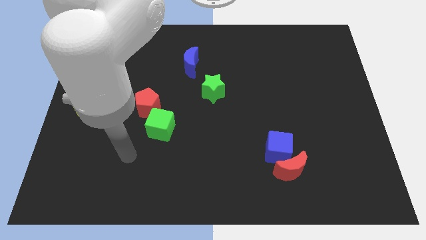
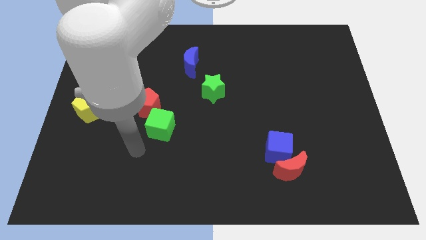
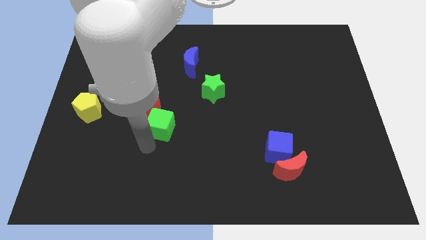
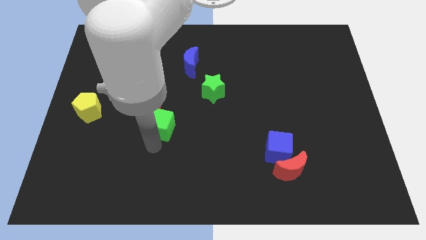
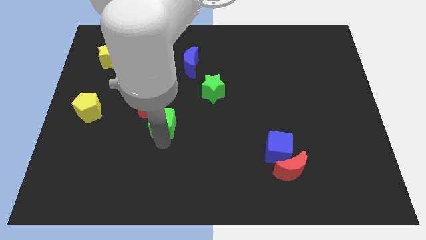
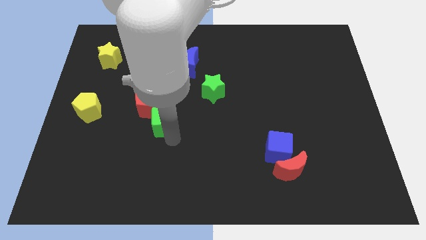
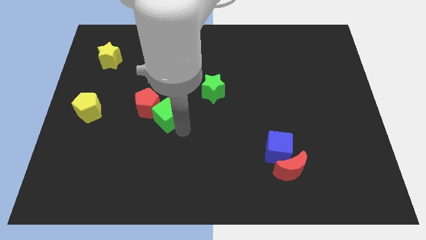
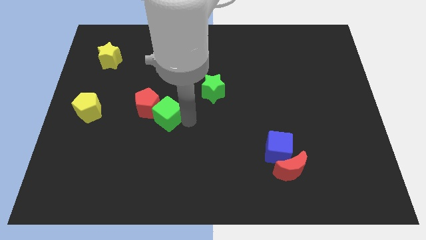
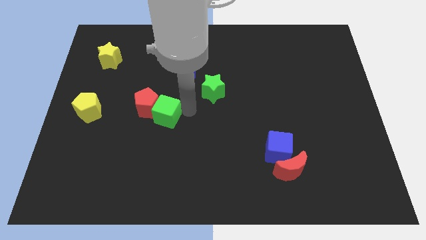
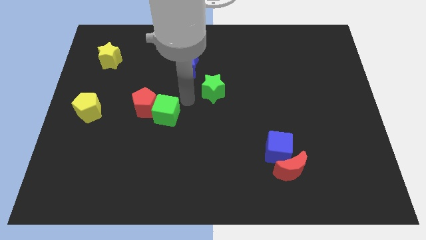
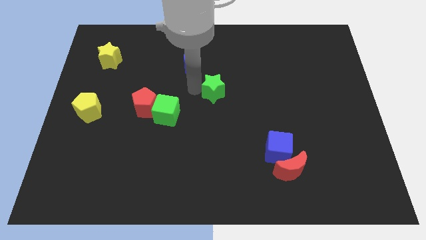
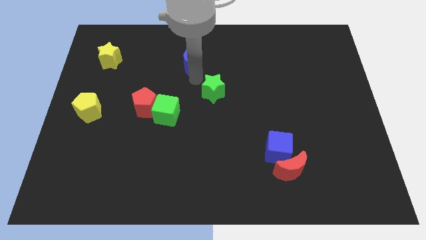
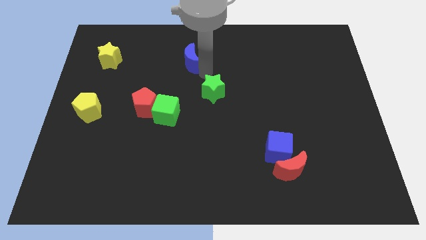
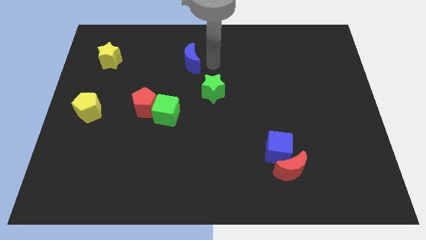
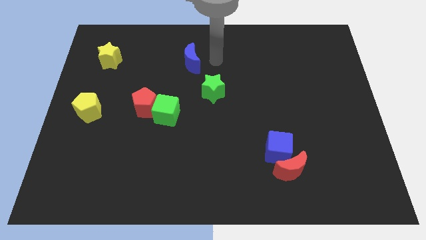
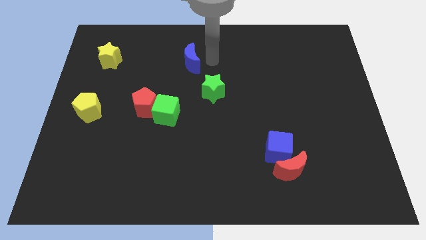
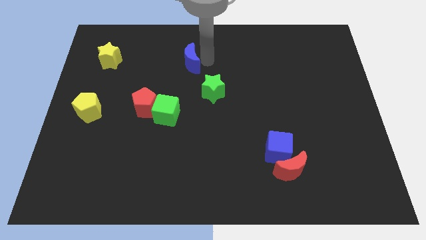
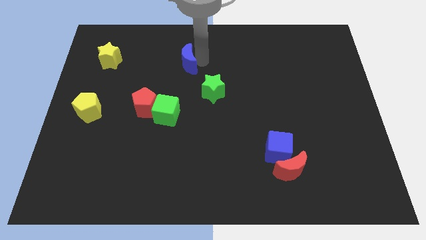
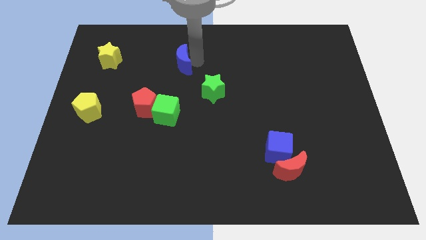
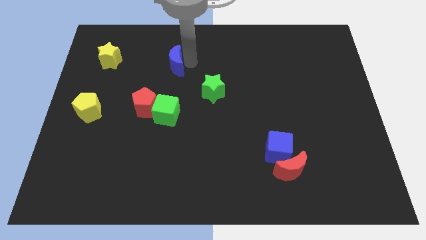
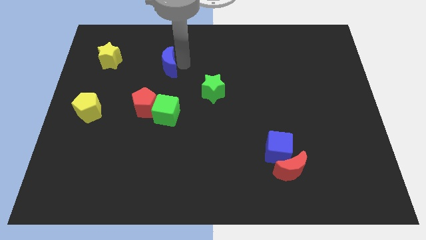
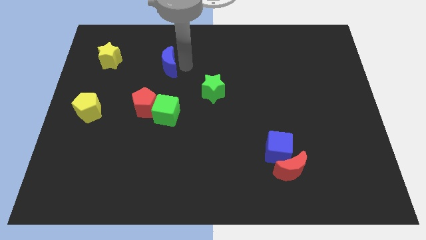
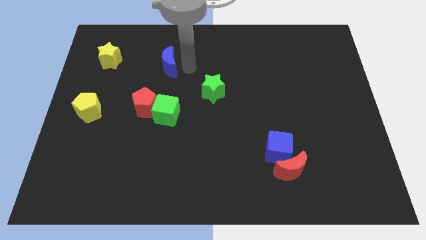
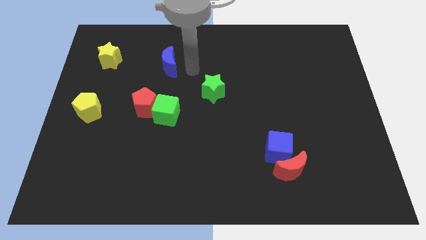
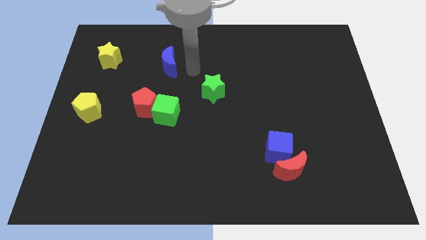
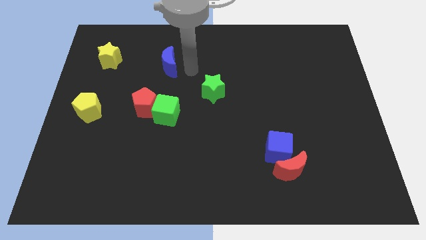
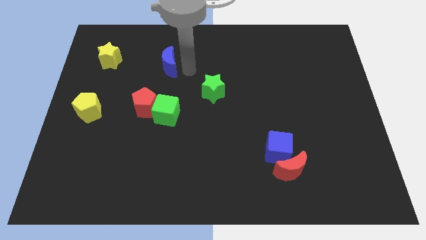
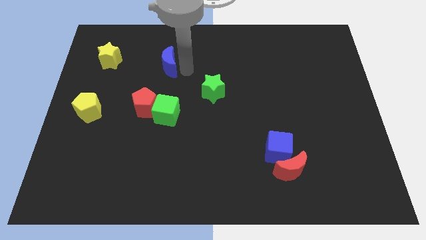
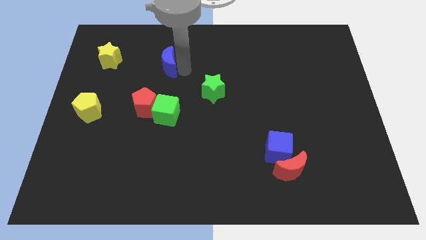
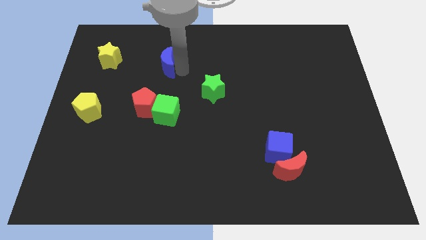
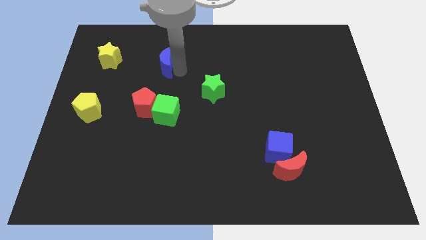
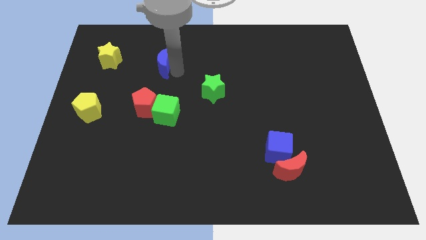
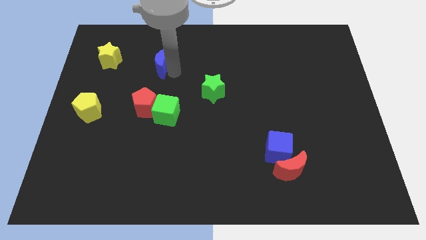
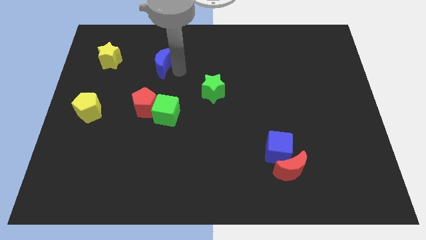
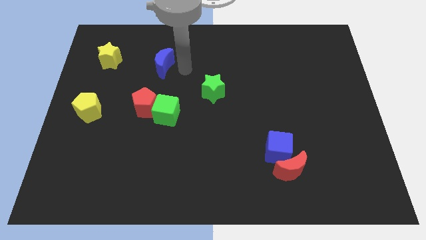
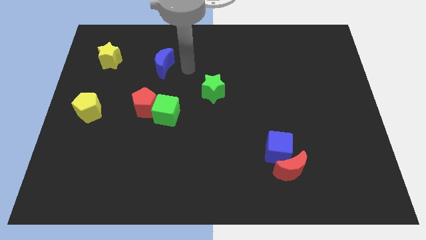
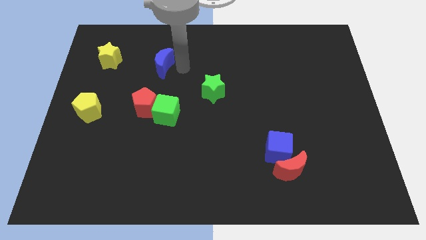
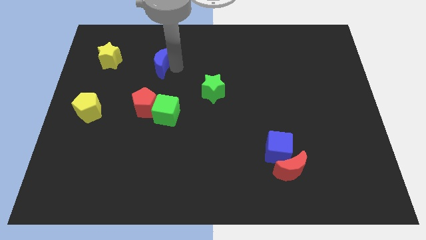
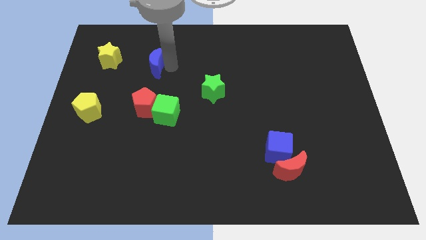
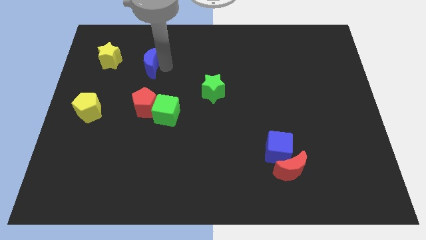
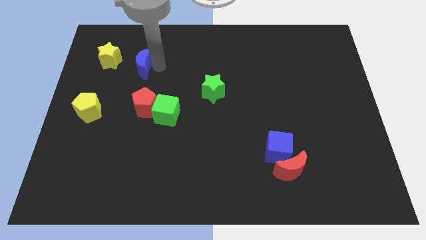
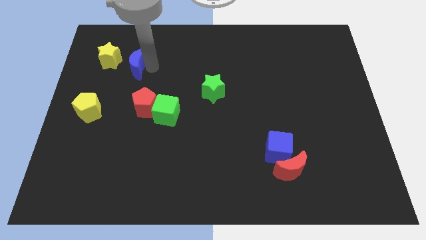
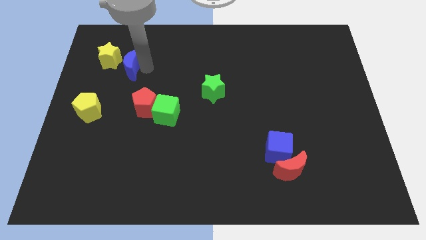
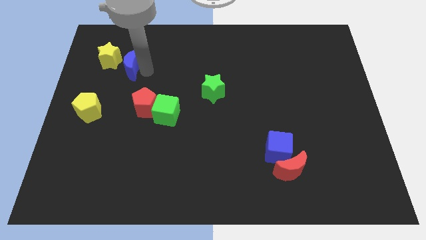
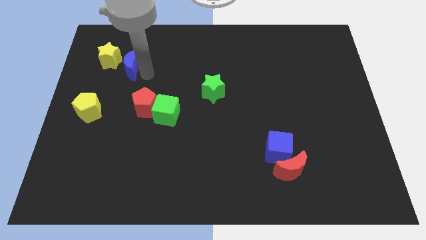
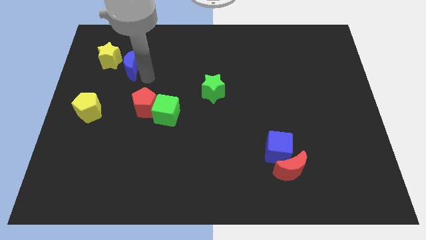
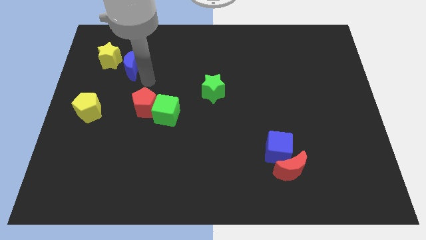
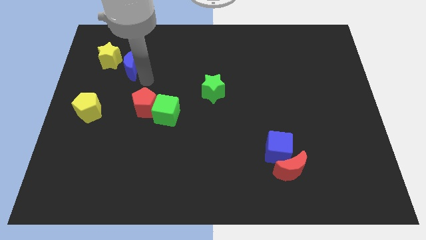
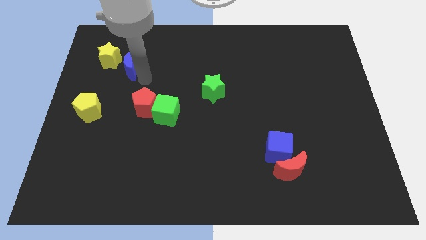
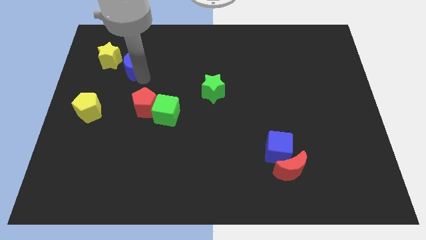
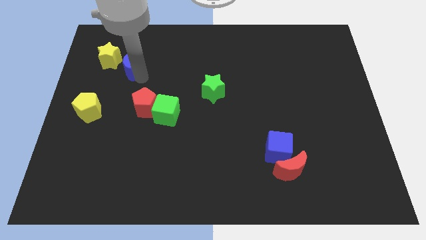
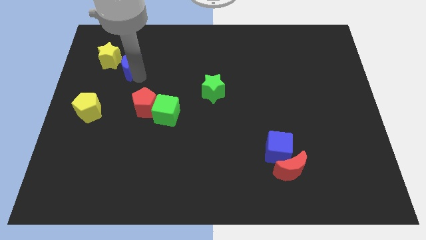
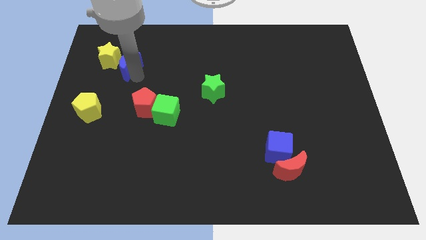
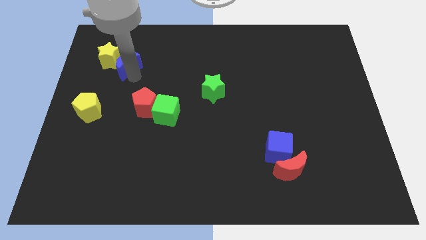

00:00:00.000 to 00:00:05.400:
put the blue moon close to the yellow star

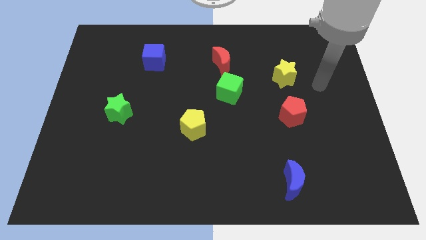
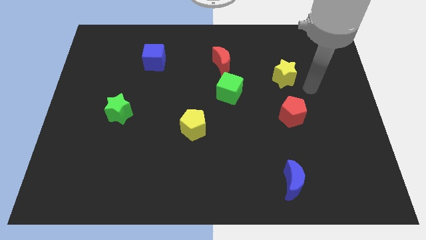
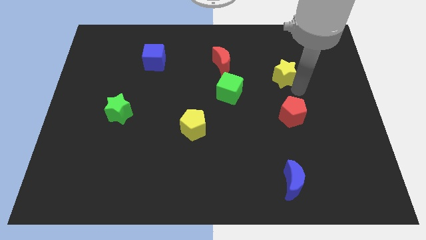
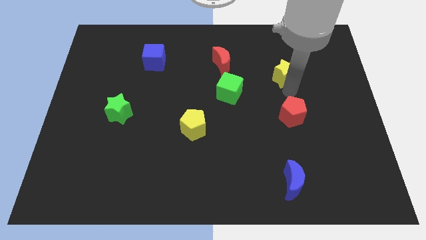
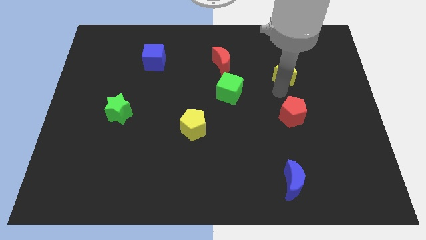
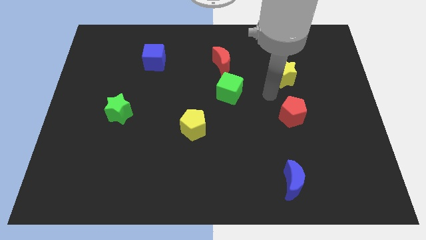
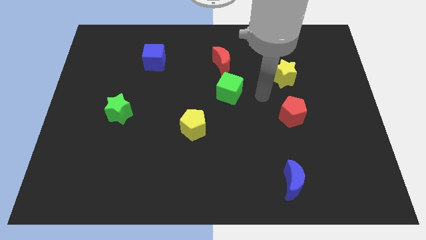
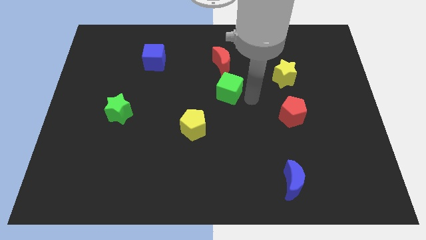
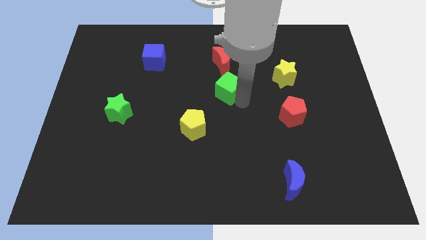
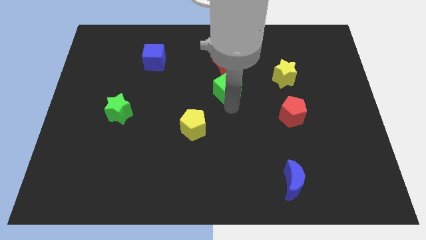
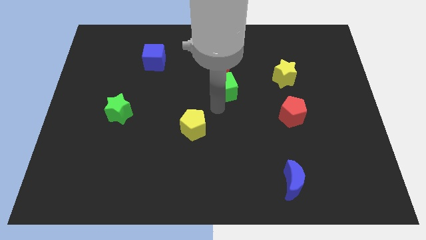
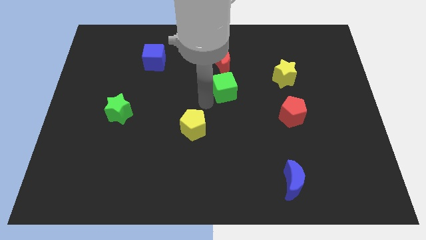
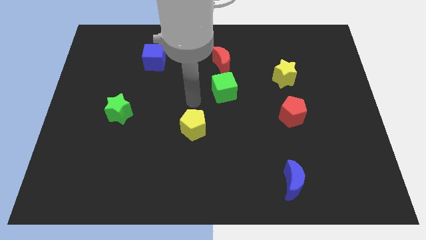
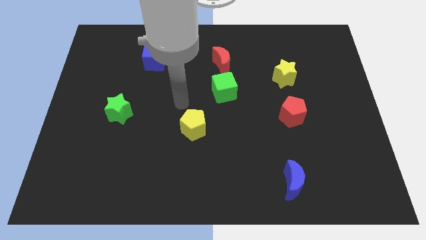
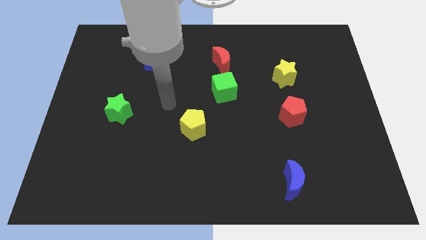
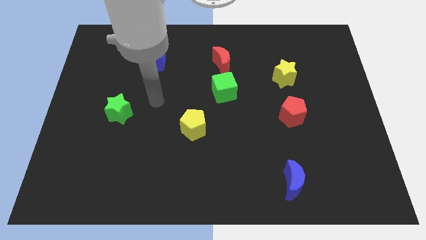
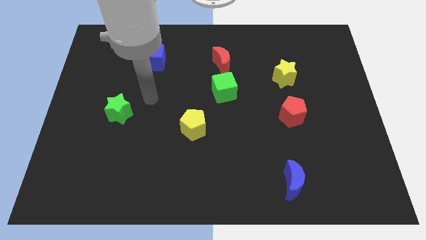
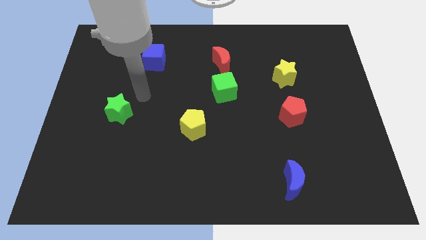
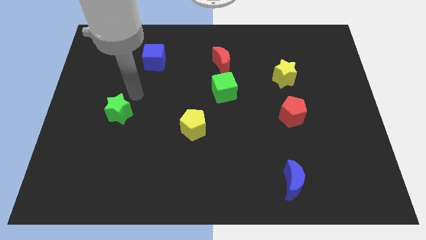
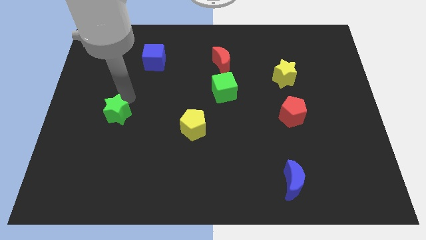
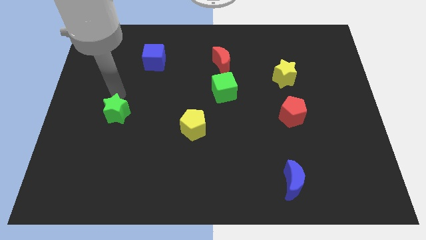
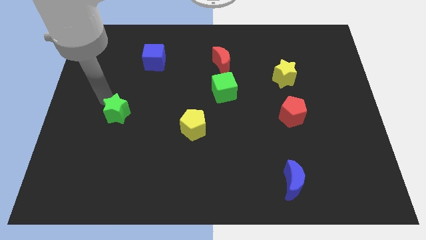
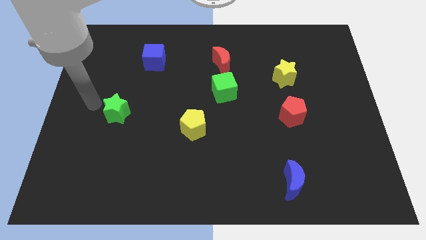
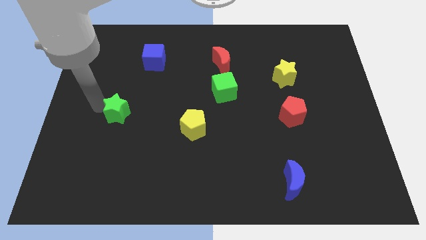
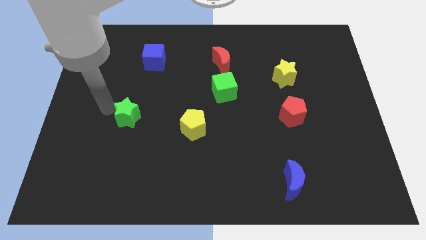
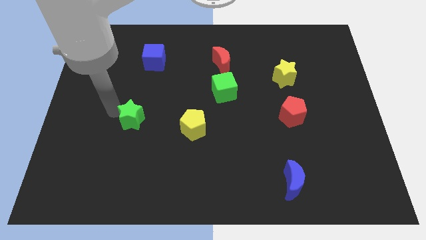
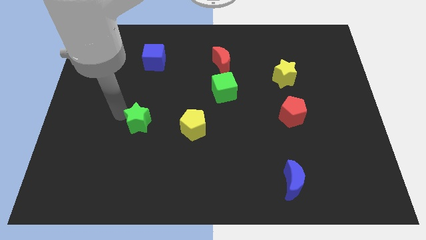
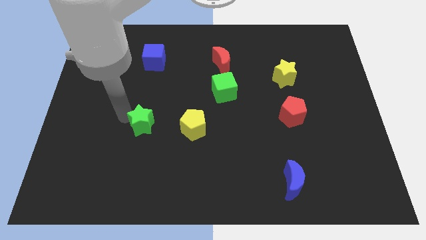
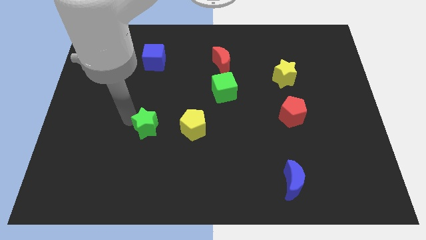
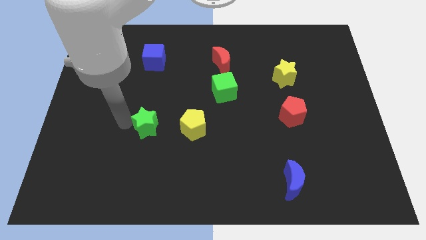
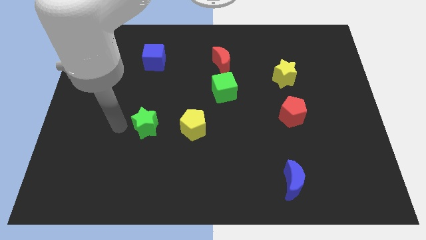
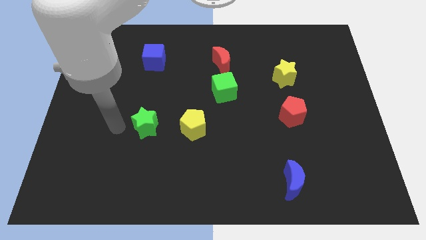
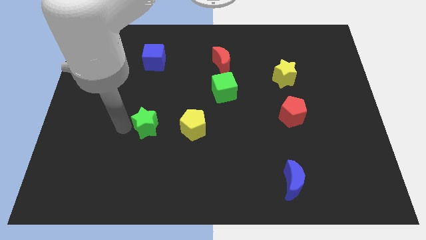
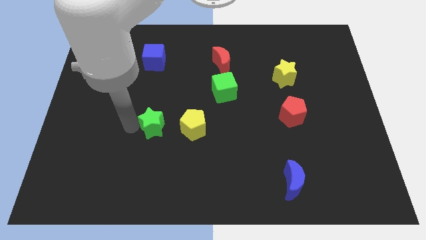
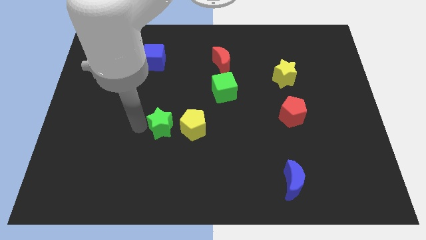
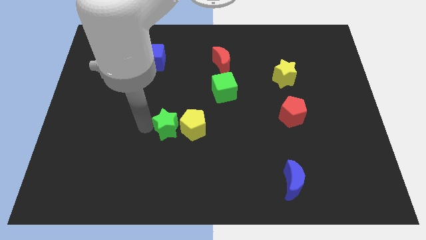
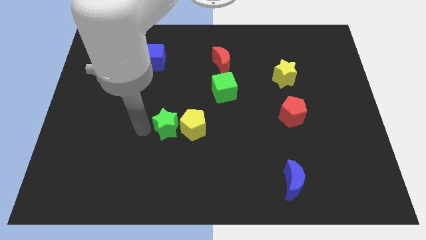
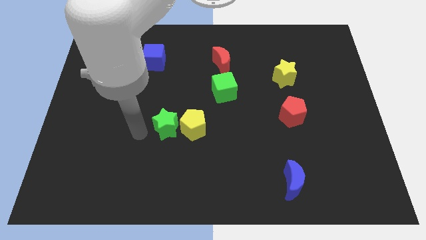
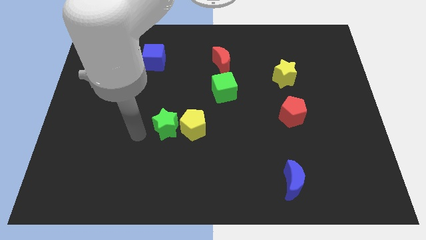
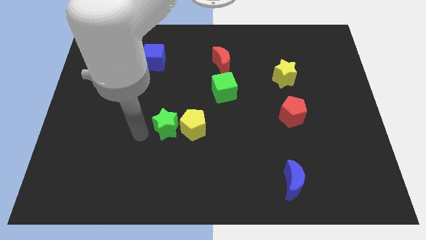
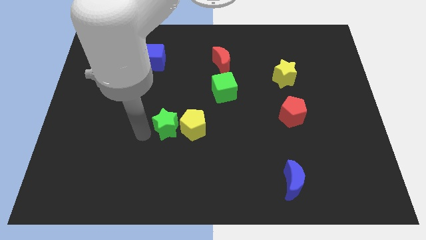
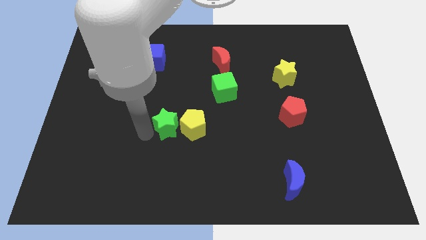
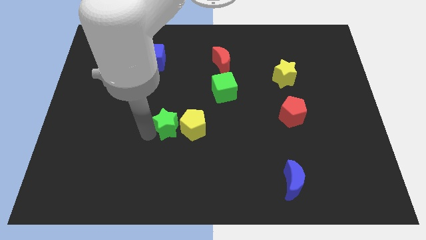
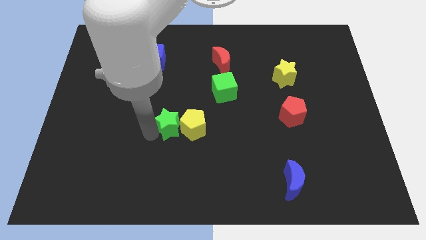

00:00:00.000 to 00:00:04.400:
put the green star next to the yellow pentagon
